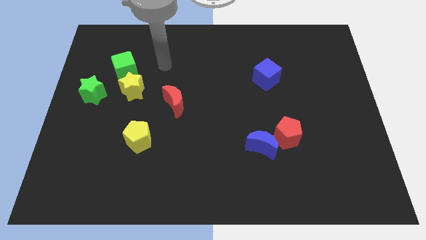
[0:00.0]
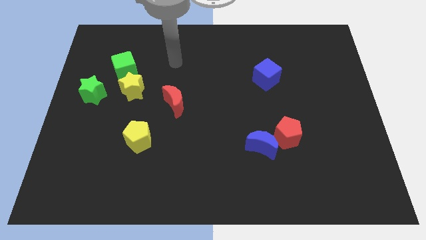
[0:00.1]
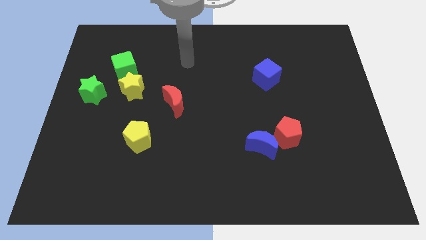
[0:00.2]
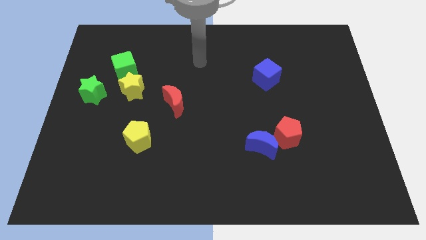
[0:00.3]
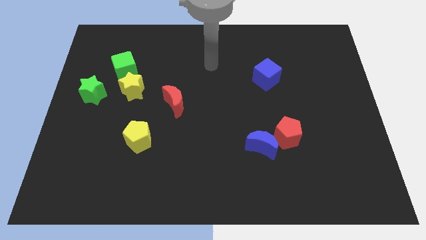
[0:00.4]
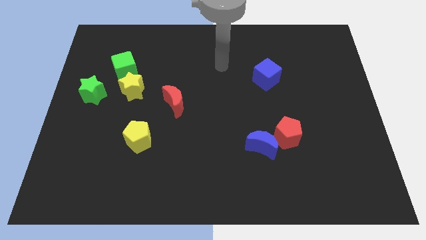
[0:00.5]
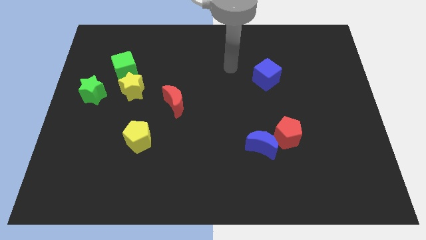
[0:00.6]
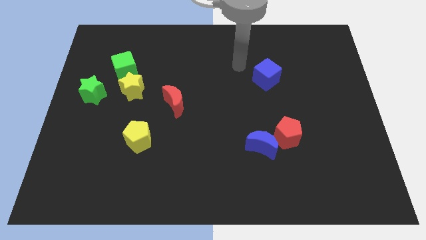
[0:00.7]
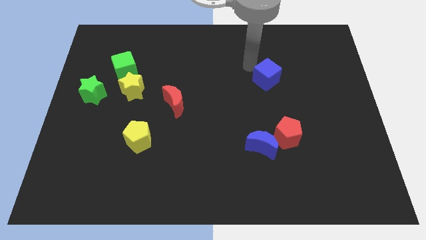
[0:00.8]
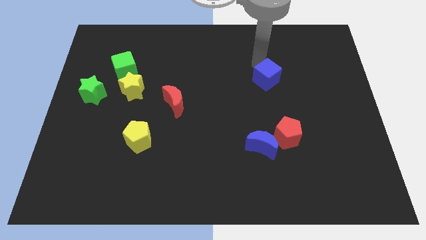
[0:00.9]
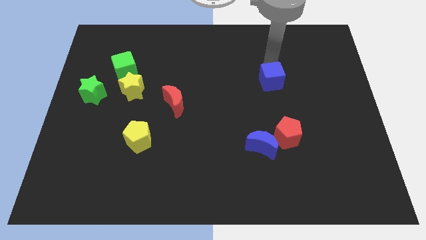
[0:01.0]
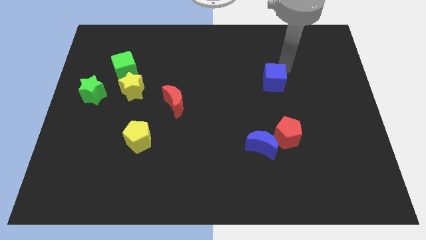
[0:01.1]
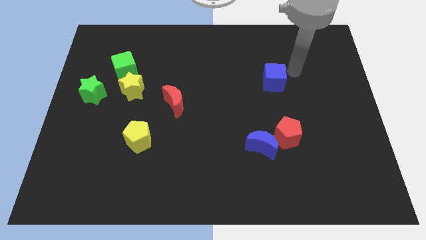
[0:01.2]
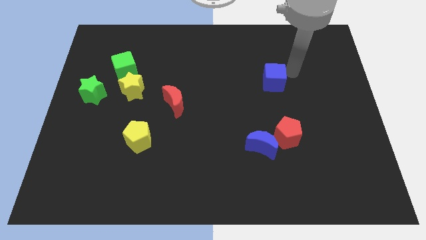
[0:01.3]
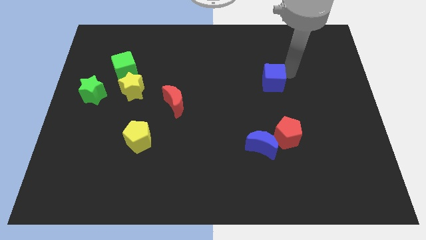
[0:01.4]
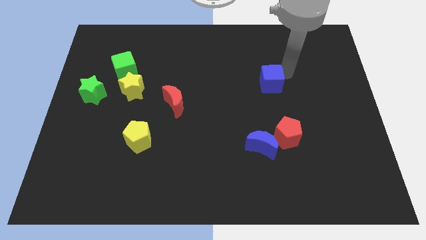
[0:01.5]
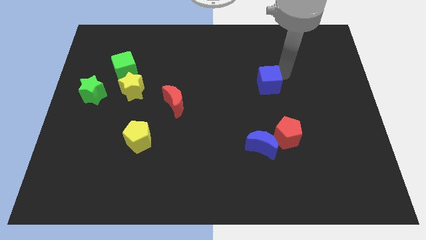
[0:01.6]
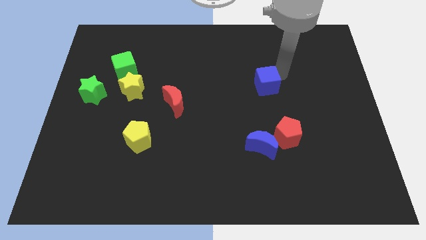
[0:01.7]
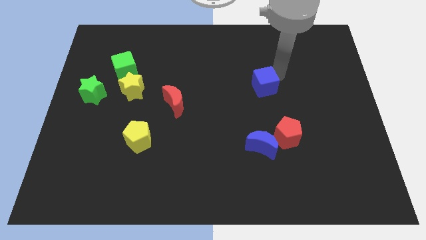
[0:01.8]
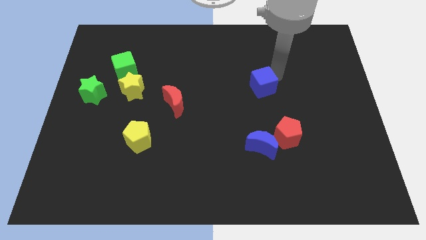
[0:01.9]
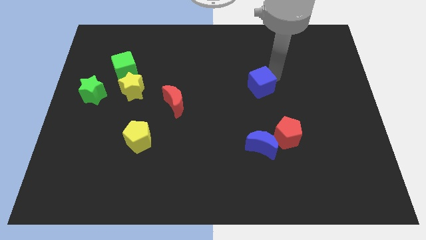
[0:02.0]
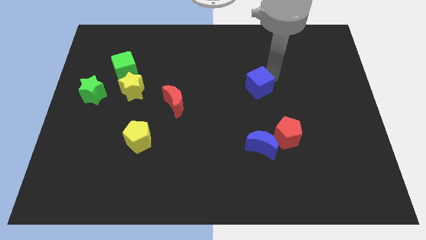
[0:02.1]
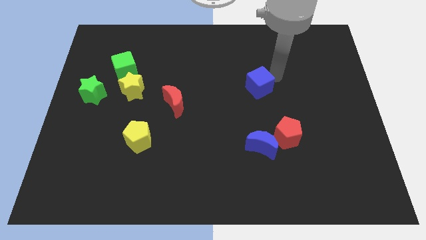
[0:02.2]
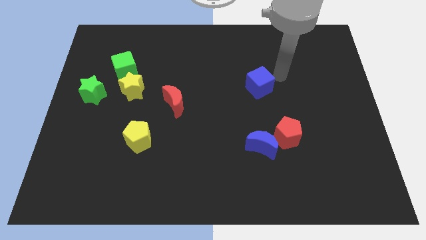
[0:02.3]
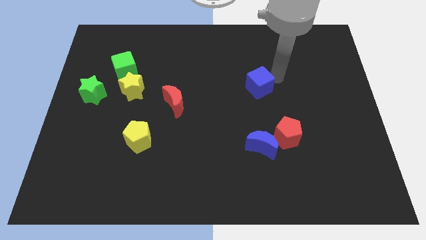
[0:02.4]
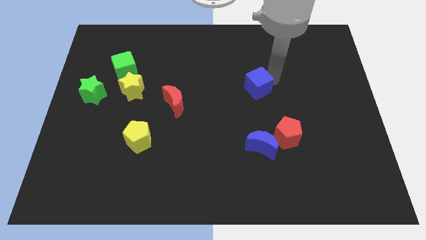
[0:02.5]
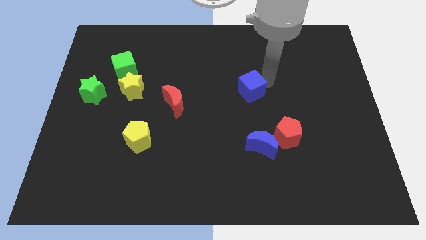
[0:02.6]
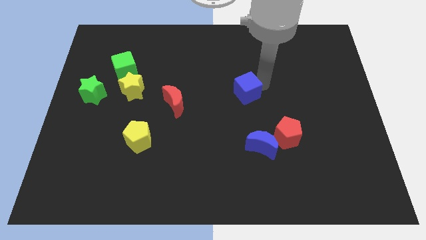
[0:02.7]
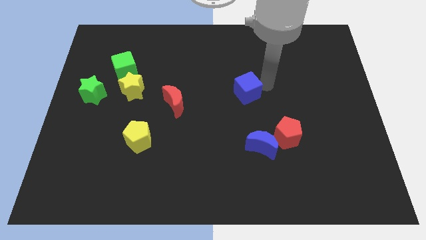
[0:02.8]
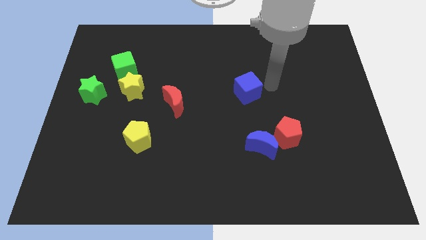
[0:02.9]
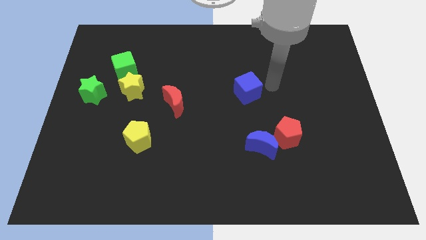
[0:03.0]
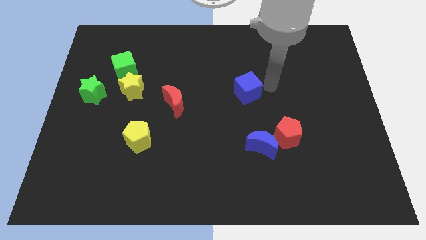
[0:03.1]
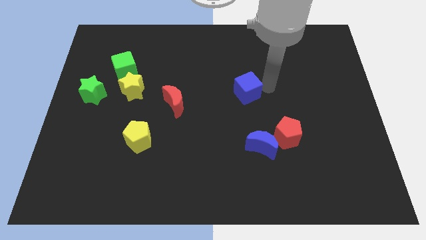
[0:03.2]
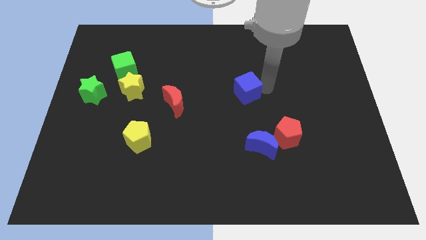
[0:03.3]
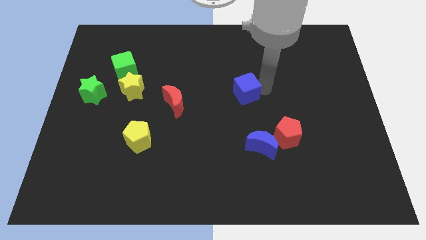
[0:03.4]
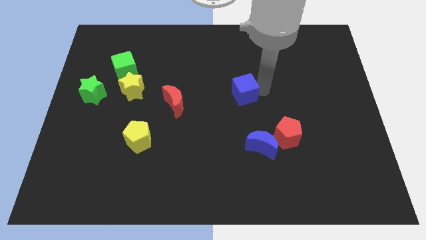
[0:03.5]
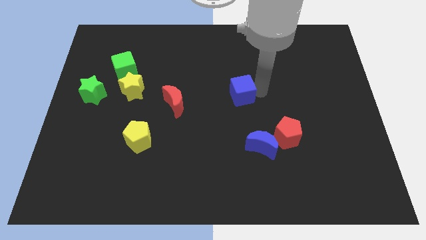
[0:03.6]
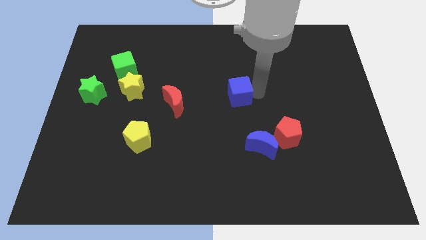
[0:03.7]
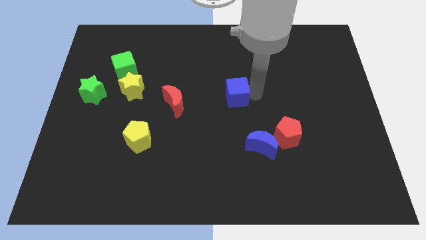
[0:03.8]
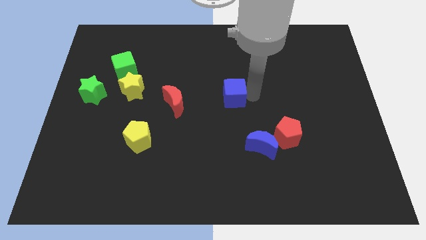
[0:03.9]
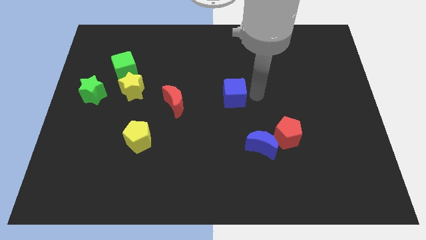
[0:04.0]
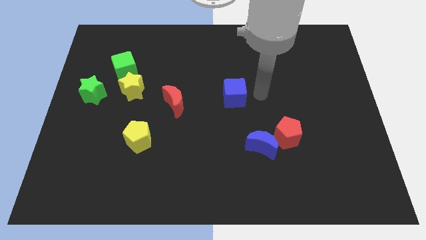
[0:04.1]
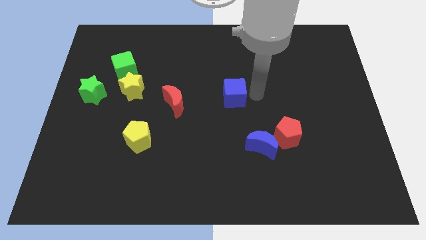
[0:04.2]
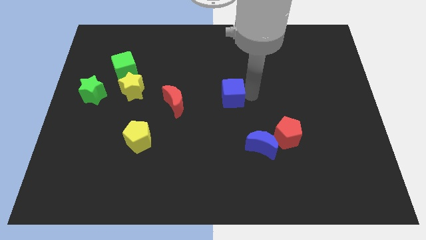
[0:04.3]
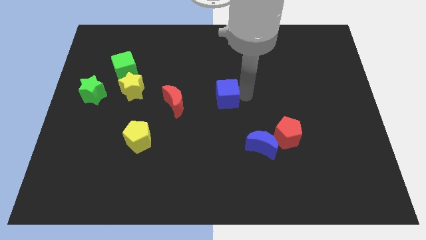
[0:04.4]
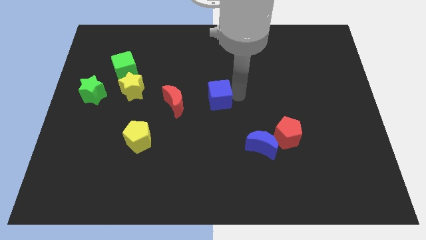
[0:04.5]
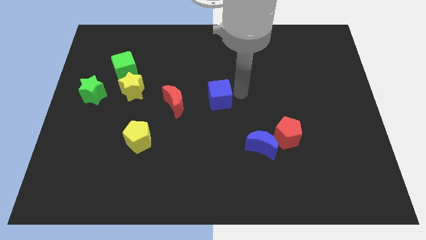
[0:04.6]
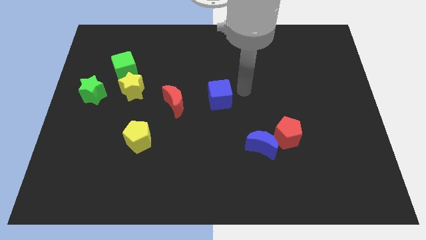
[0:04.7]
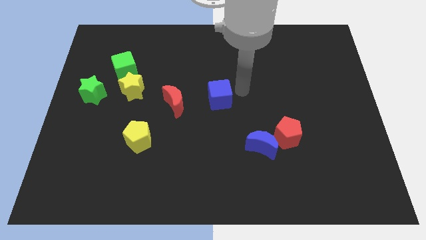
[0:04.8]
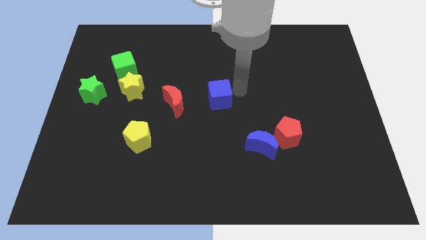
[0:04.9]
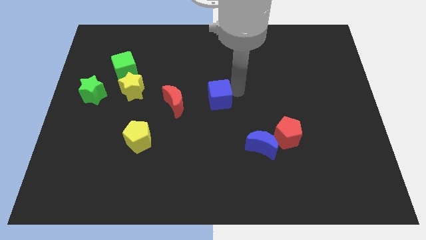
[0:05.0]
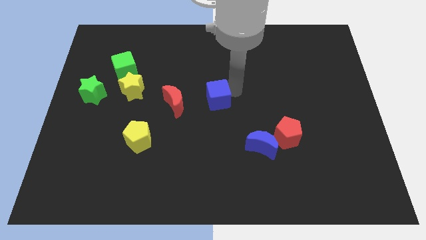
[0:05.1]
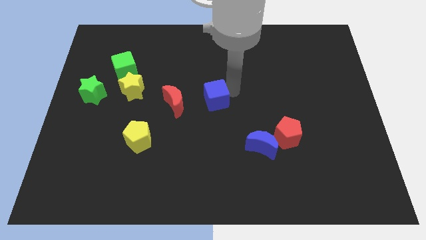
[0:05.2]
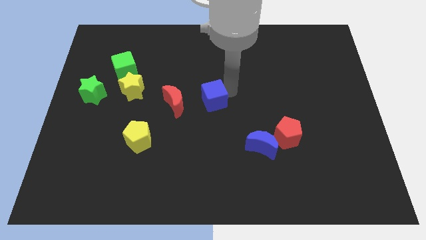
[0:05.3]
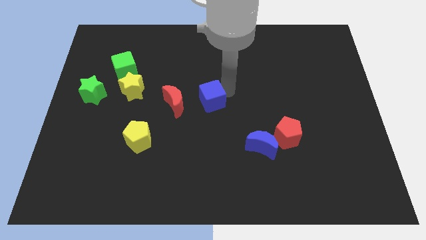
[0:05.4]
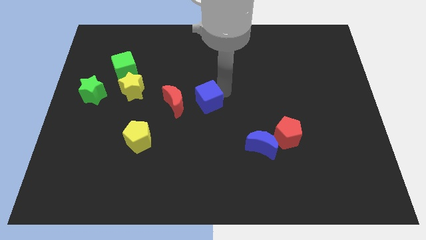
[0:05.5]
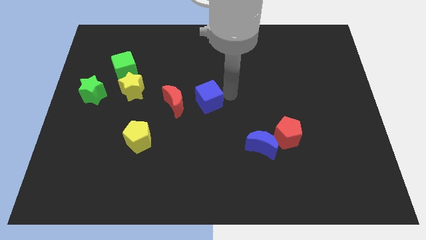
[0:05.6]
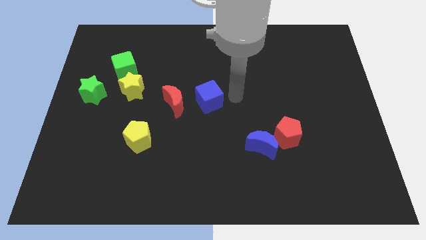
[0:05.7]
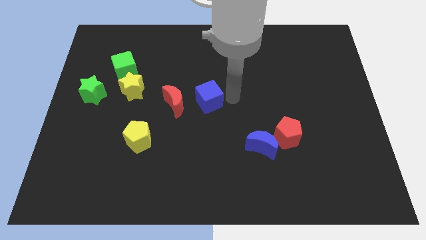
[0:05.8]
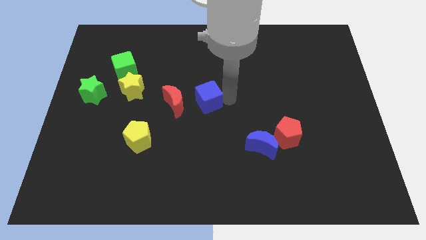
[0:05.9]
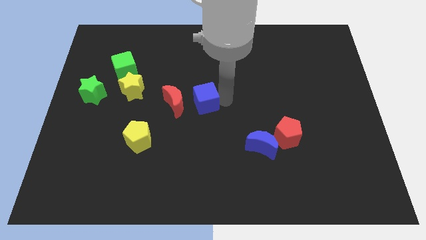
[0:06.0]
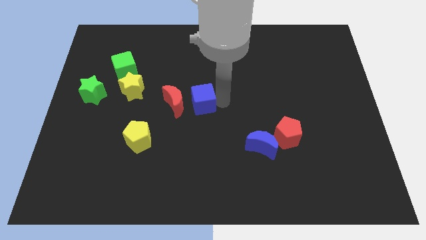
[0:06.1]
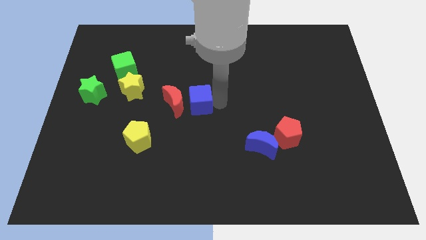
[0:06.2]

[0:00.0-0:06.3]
slide the blue cube to the red moon

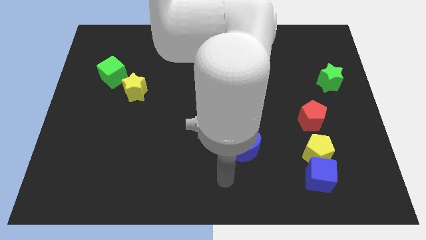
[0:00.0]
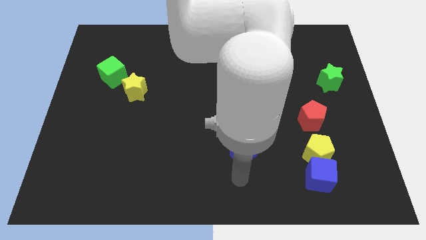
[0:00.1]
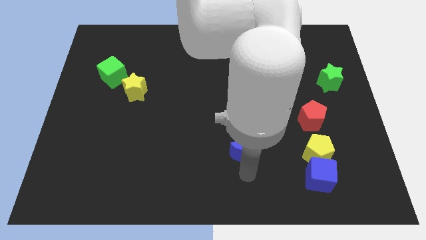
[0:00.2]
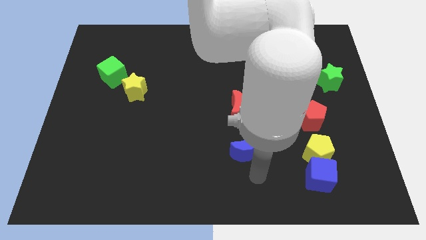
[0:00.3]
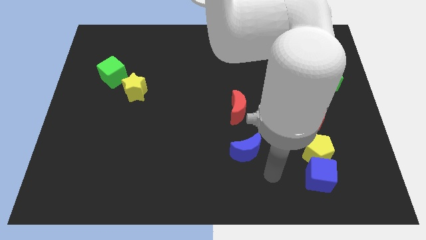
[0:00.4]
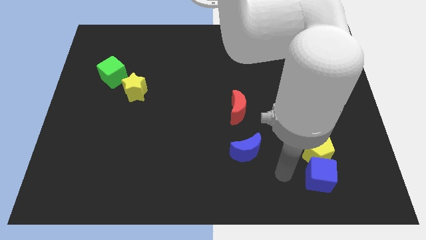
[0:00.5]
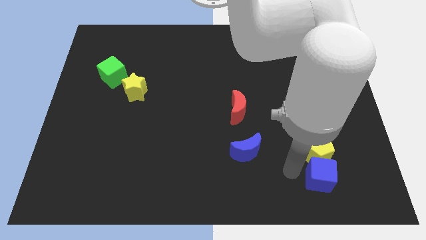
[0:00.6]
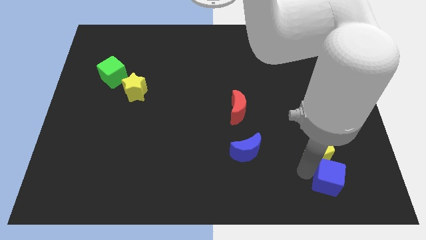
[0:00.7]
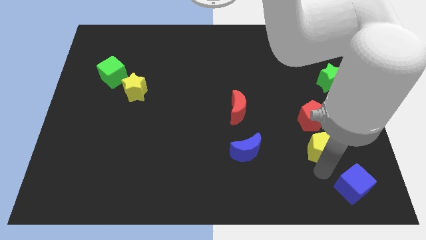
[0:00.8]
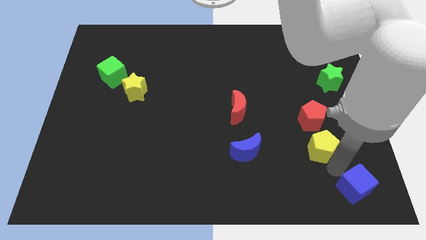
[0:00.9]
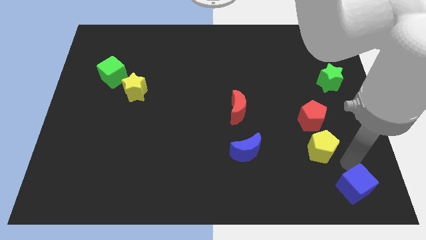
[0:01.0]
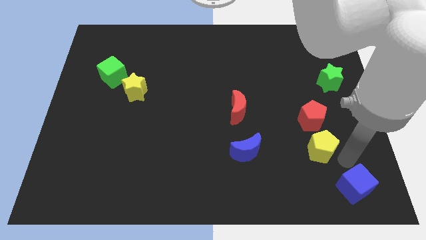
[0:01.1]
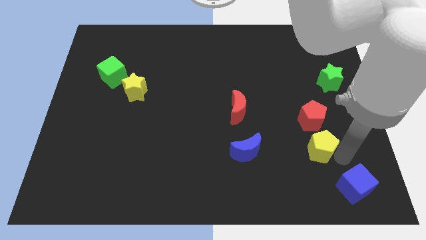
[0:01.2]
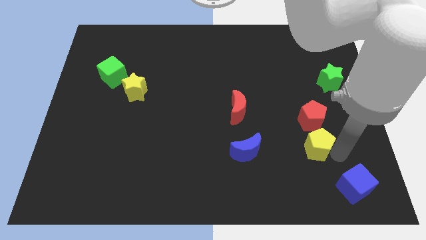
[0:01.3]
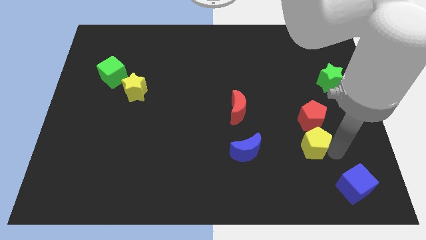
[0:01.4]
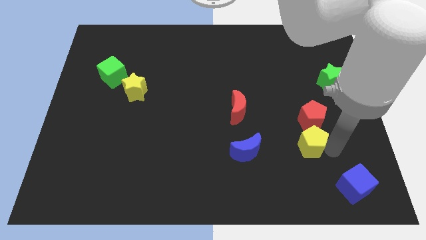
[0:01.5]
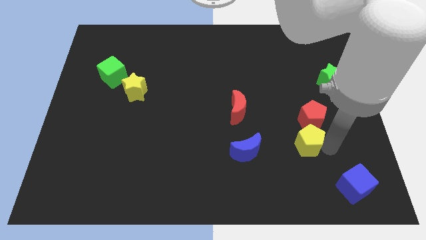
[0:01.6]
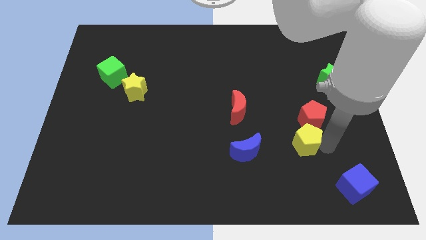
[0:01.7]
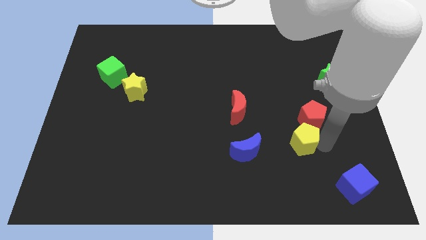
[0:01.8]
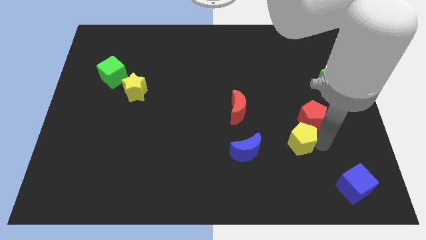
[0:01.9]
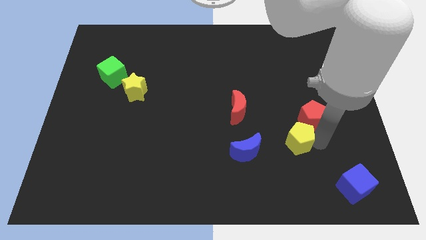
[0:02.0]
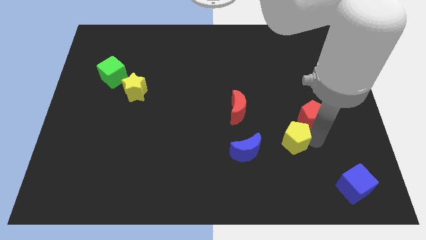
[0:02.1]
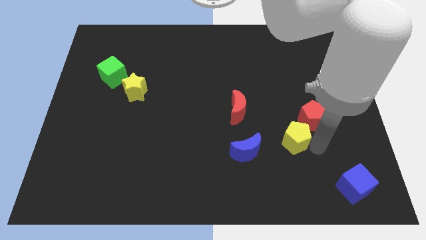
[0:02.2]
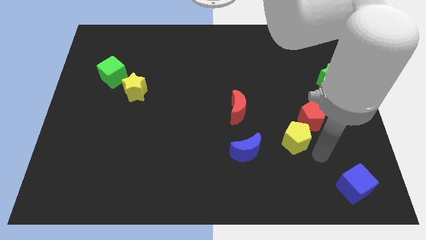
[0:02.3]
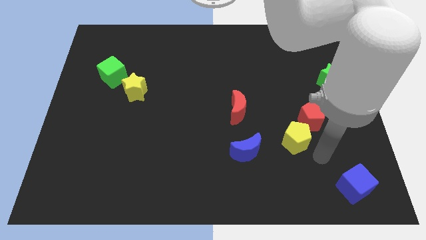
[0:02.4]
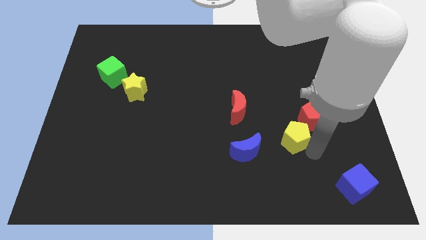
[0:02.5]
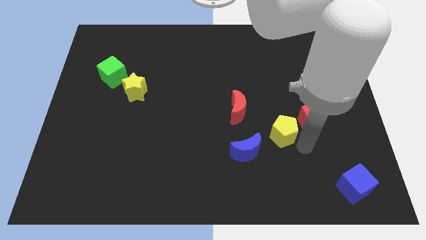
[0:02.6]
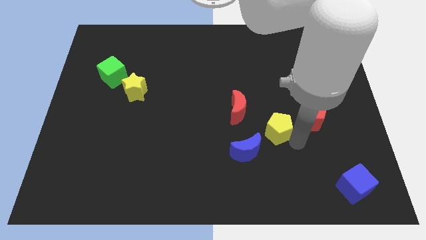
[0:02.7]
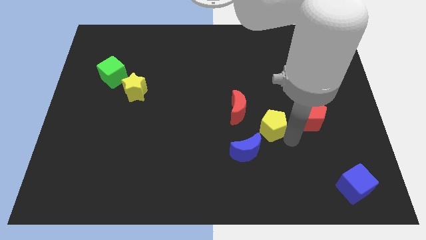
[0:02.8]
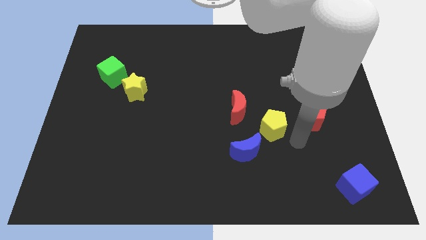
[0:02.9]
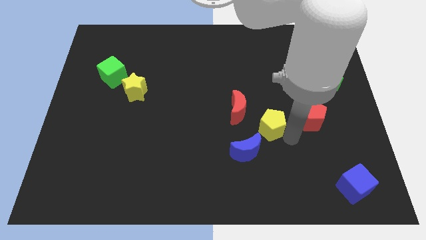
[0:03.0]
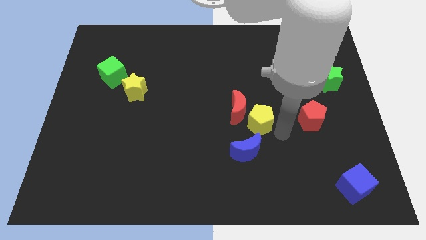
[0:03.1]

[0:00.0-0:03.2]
put the yellow pentagon close to the red moon
